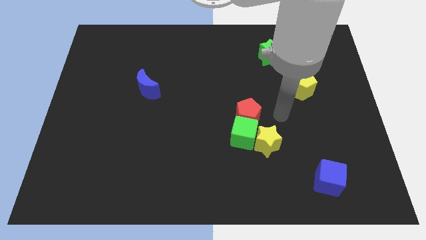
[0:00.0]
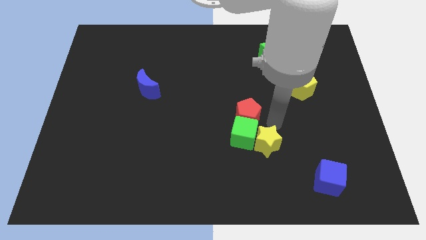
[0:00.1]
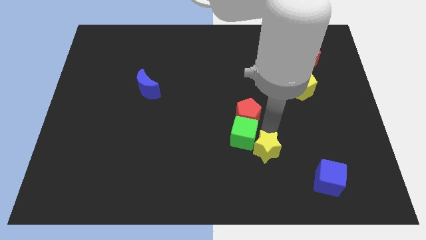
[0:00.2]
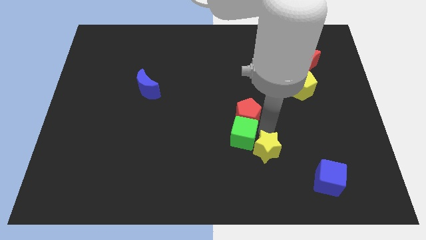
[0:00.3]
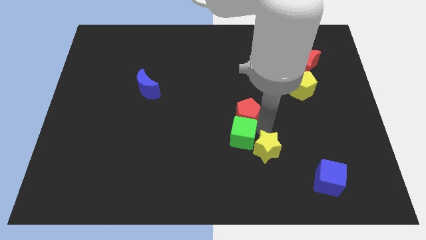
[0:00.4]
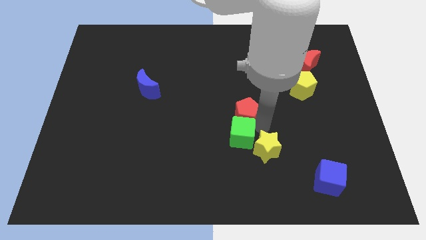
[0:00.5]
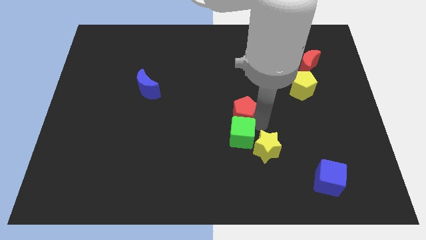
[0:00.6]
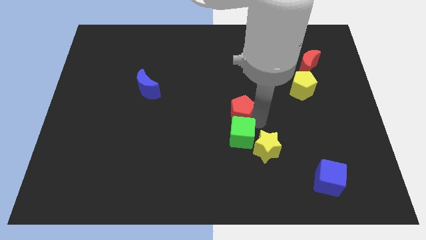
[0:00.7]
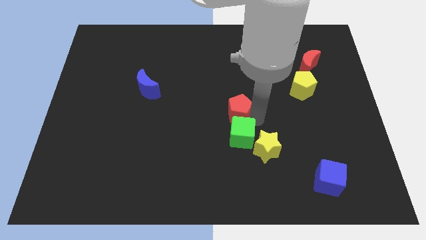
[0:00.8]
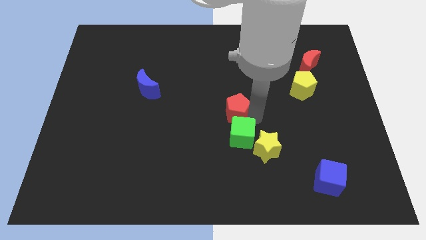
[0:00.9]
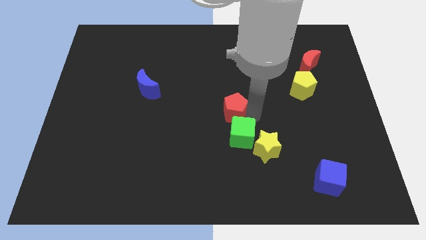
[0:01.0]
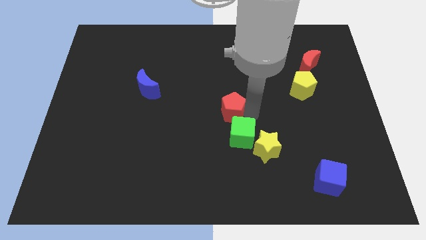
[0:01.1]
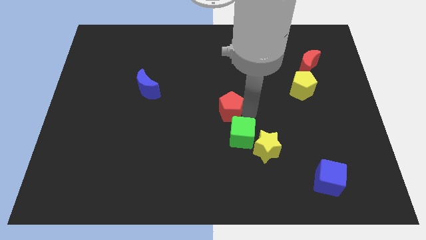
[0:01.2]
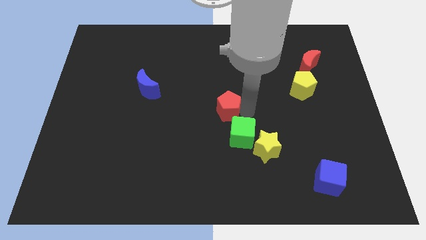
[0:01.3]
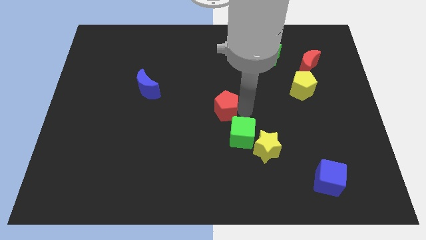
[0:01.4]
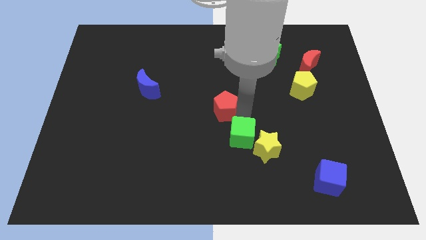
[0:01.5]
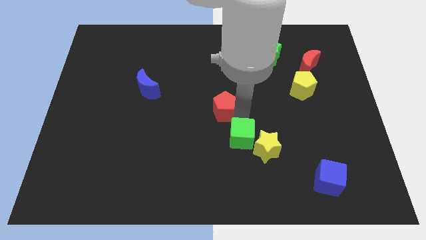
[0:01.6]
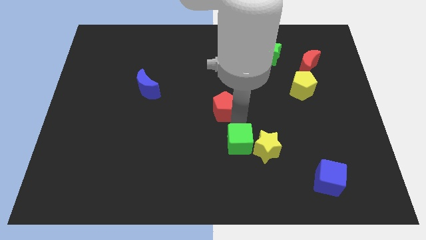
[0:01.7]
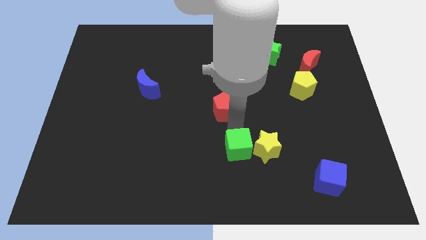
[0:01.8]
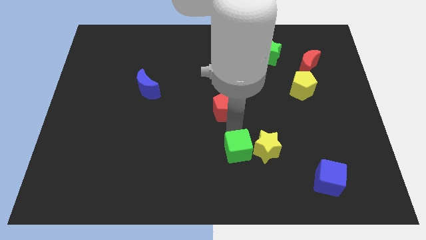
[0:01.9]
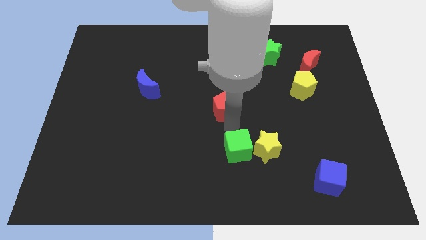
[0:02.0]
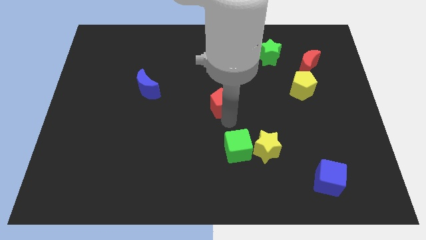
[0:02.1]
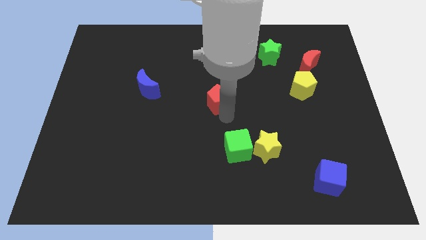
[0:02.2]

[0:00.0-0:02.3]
push the red pentagon diagonally upwards and left a bit

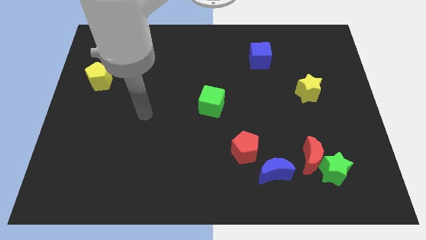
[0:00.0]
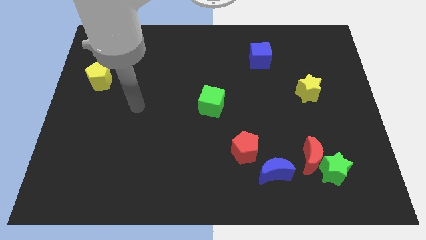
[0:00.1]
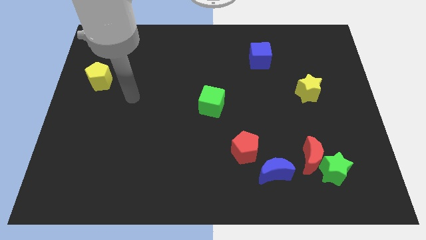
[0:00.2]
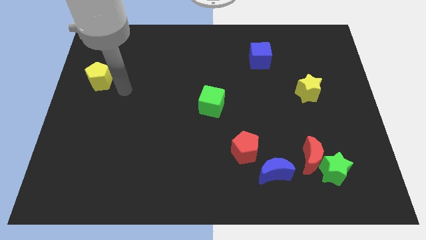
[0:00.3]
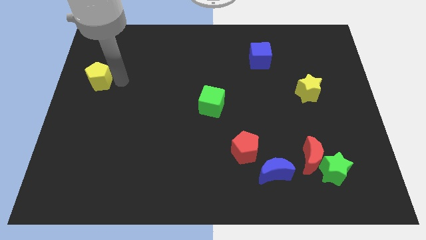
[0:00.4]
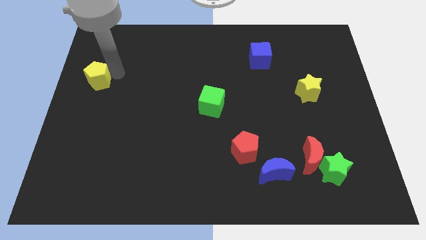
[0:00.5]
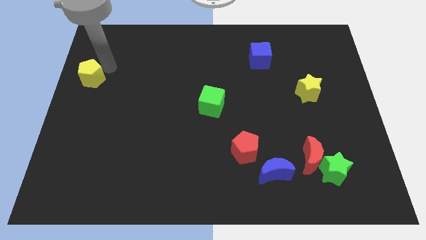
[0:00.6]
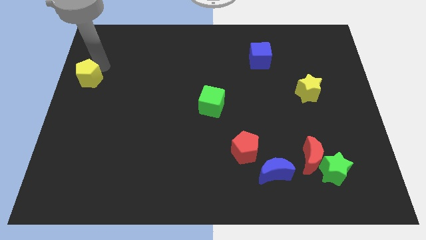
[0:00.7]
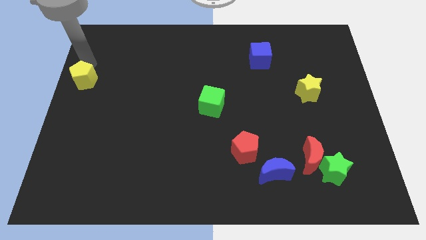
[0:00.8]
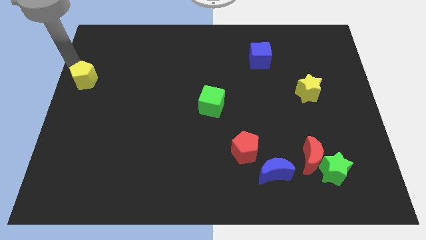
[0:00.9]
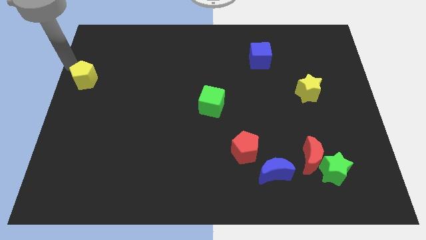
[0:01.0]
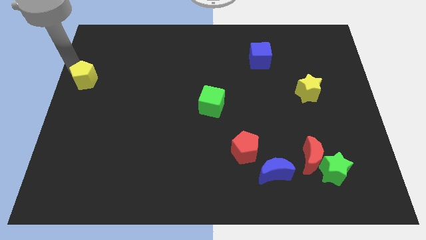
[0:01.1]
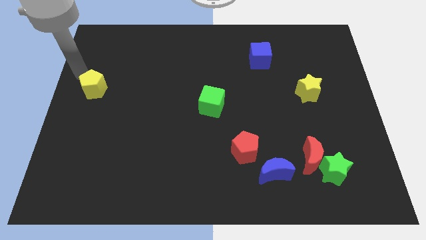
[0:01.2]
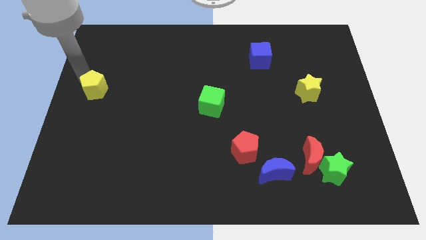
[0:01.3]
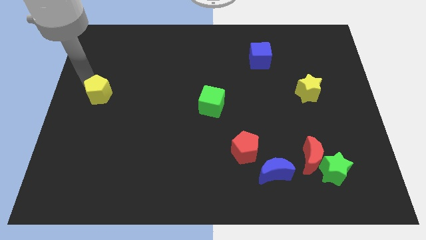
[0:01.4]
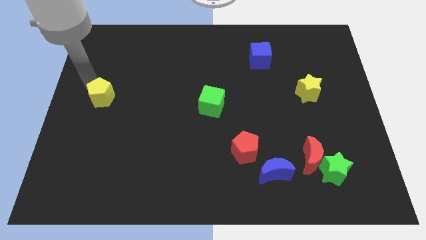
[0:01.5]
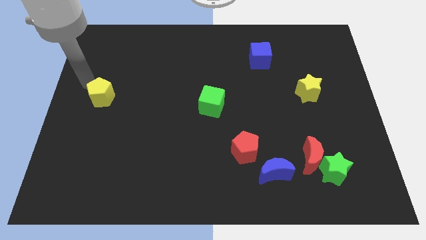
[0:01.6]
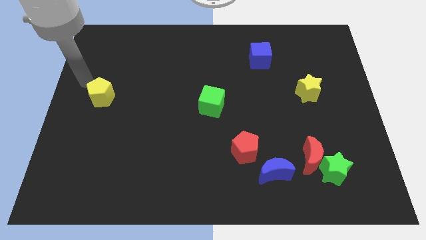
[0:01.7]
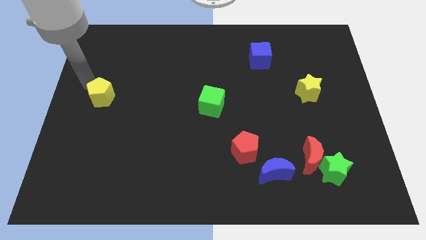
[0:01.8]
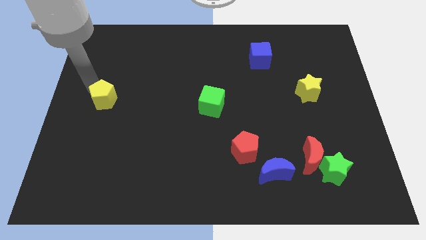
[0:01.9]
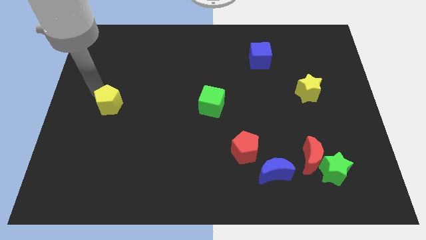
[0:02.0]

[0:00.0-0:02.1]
slightly push the yellow pentagon down and right

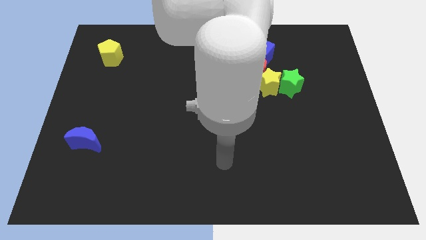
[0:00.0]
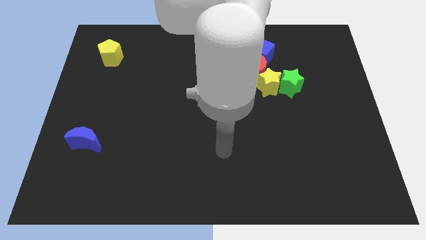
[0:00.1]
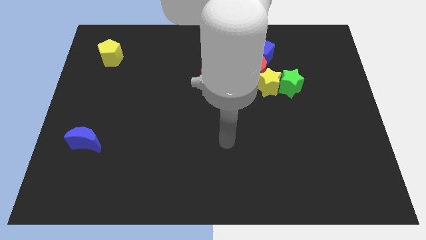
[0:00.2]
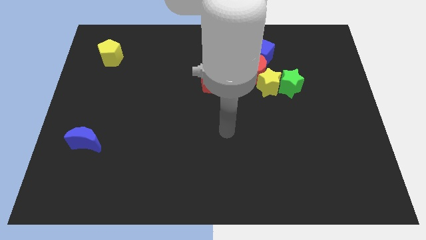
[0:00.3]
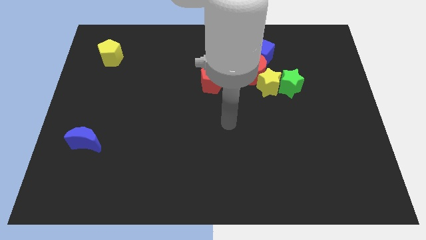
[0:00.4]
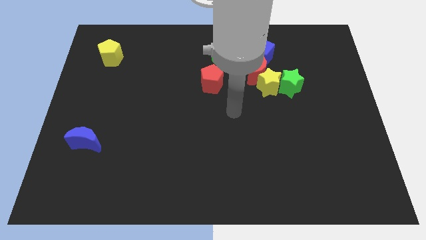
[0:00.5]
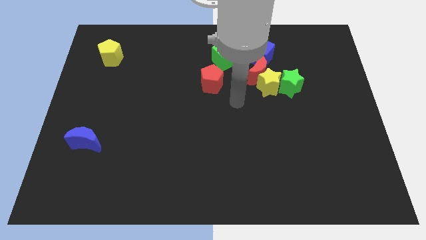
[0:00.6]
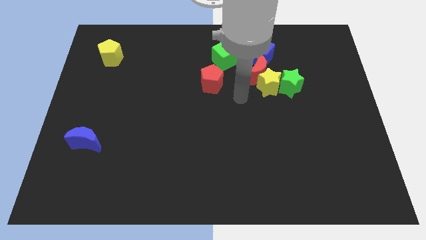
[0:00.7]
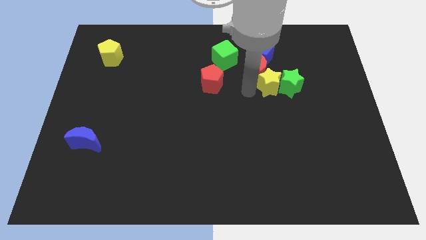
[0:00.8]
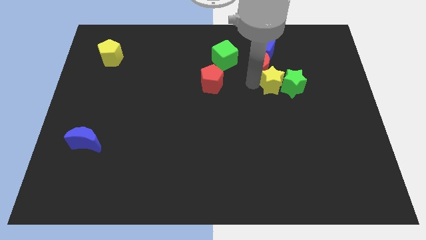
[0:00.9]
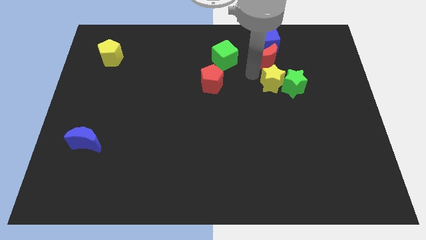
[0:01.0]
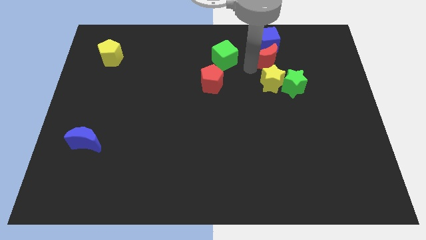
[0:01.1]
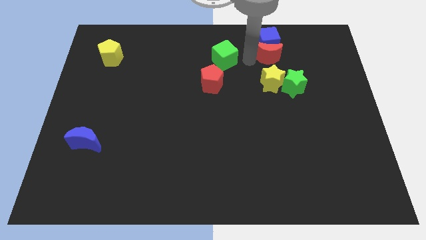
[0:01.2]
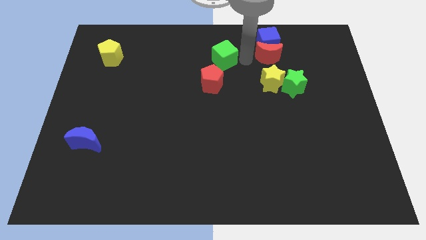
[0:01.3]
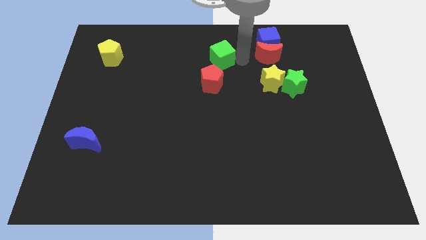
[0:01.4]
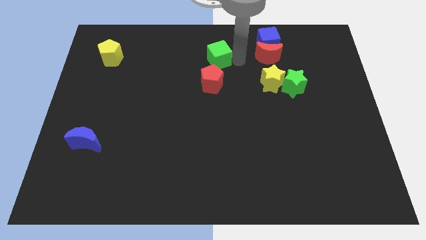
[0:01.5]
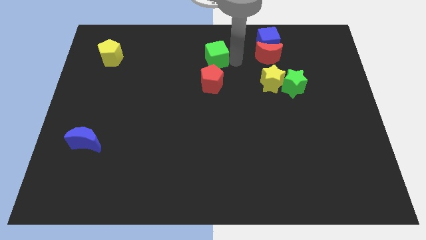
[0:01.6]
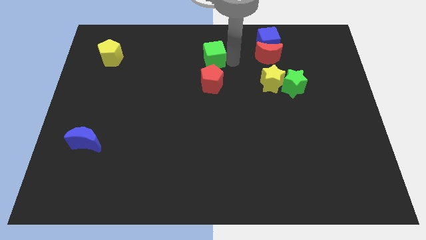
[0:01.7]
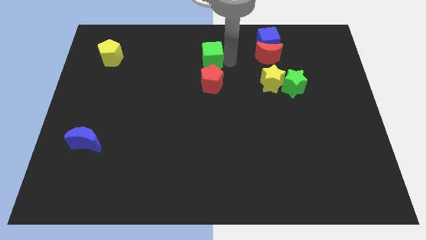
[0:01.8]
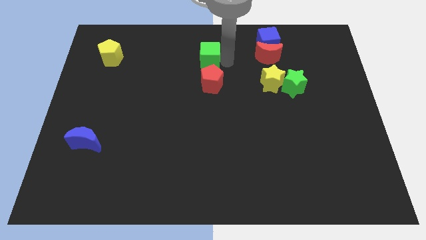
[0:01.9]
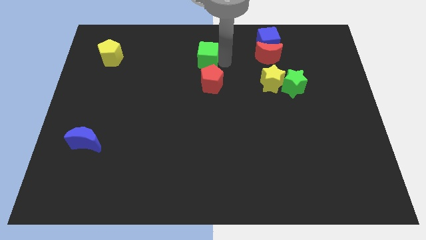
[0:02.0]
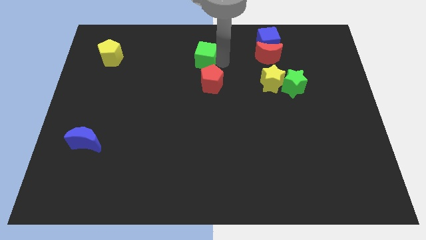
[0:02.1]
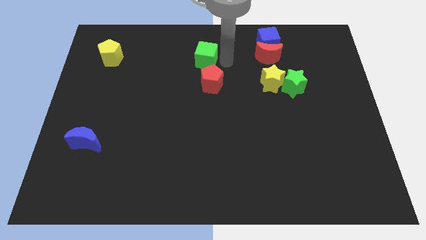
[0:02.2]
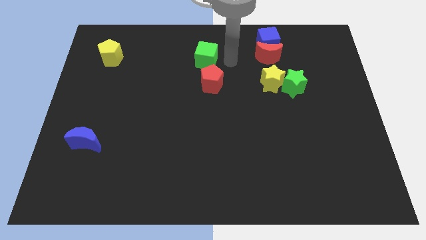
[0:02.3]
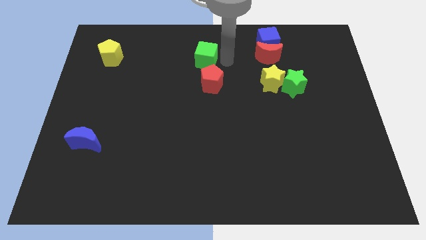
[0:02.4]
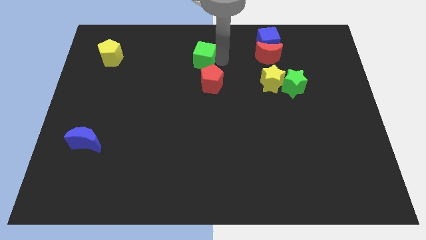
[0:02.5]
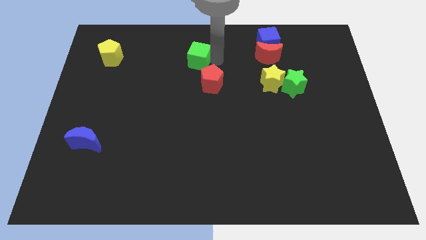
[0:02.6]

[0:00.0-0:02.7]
slide the green cube to the left slightly

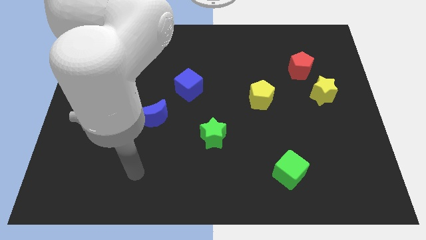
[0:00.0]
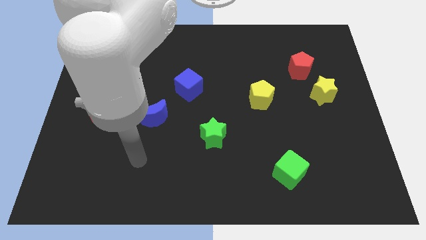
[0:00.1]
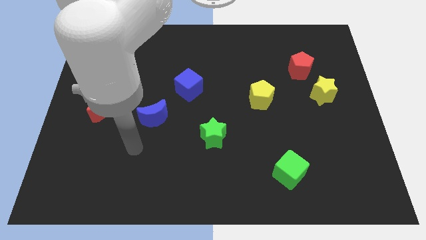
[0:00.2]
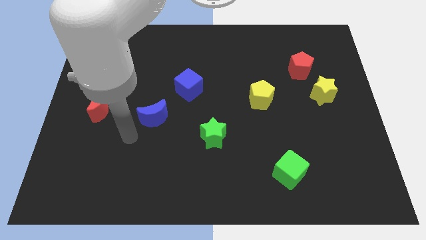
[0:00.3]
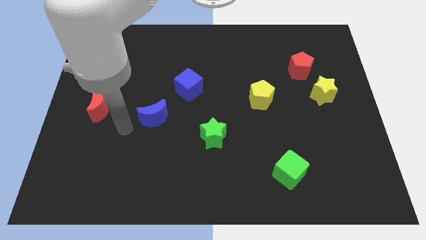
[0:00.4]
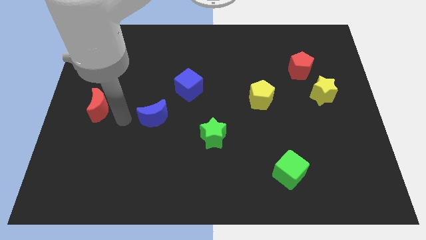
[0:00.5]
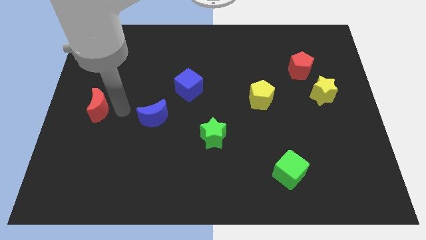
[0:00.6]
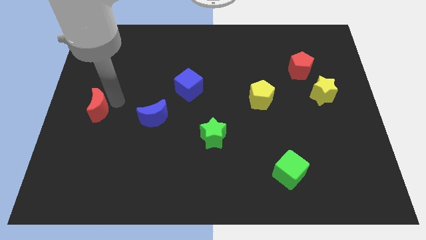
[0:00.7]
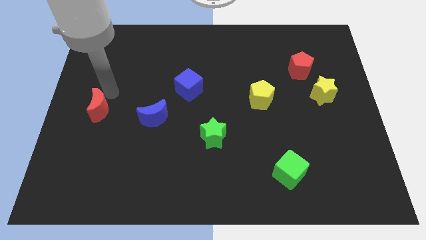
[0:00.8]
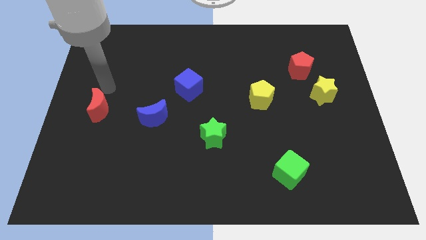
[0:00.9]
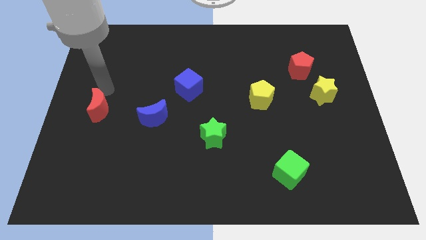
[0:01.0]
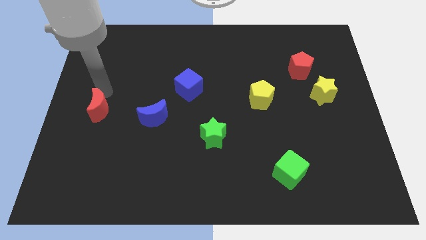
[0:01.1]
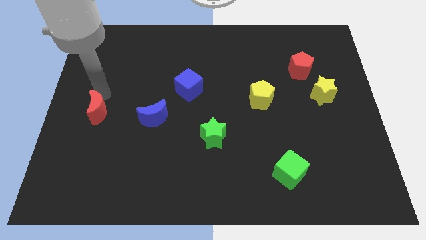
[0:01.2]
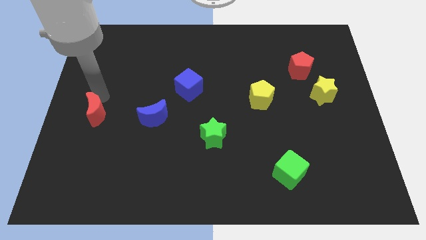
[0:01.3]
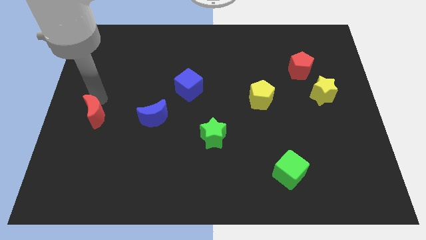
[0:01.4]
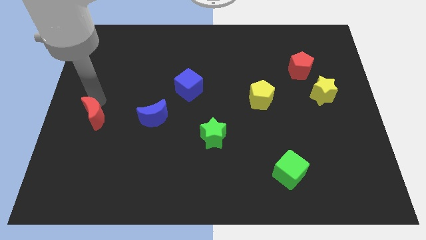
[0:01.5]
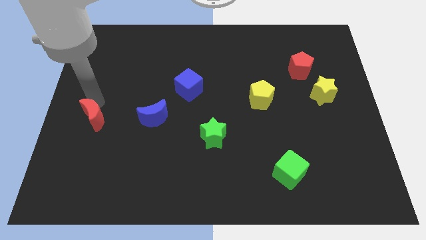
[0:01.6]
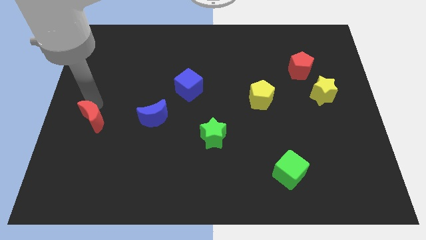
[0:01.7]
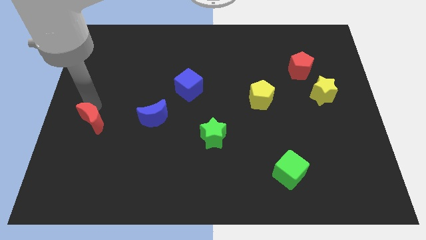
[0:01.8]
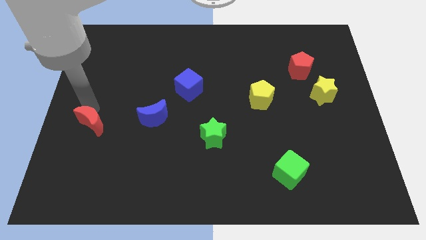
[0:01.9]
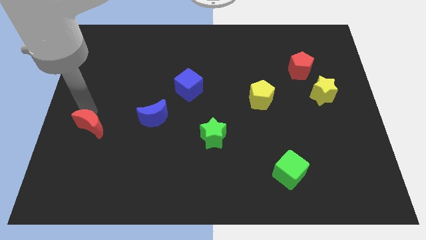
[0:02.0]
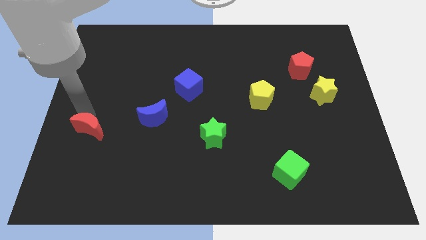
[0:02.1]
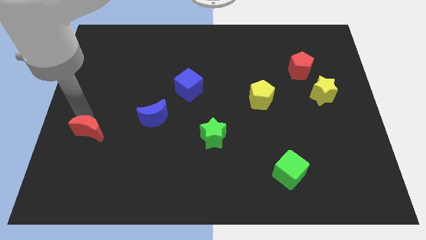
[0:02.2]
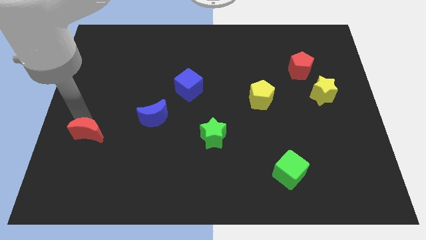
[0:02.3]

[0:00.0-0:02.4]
slide the red moon down a little
